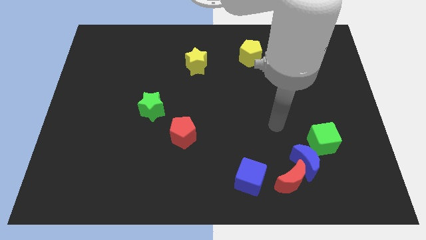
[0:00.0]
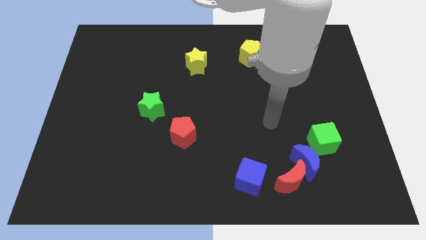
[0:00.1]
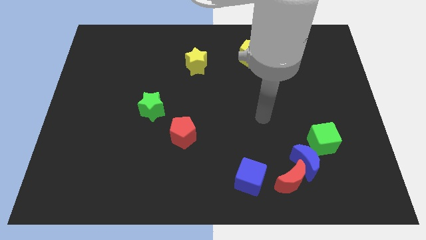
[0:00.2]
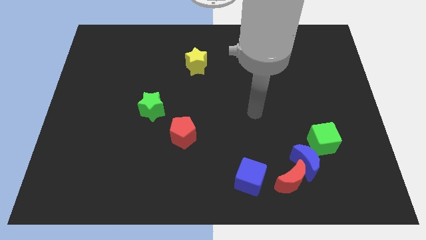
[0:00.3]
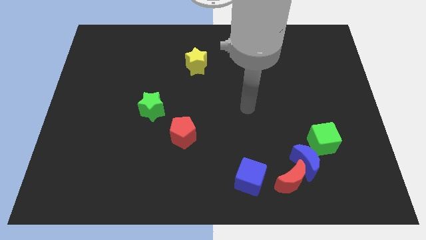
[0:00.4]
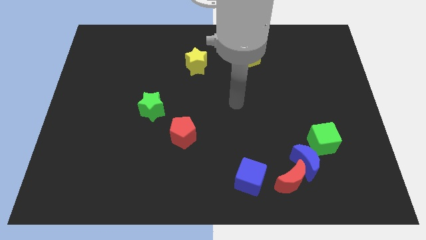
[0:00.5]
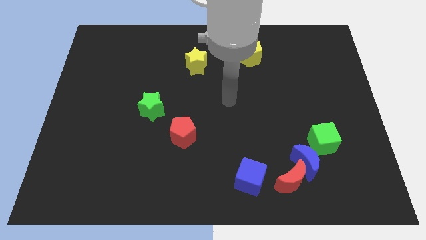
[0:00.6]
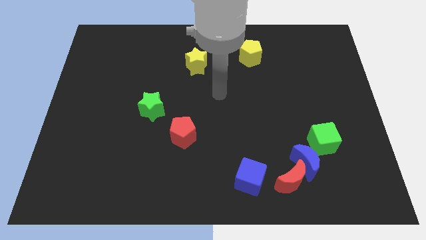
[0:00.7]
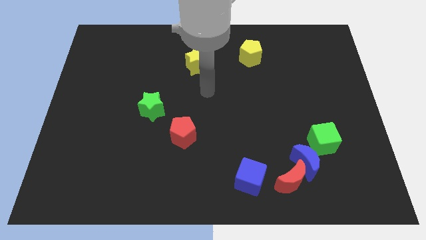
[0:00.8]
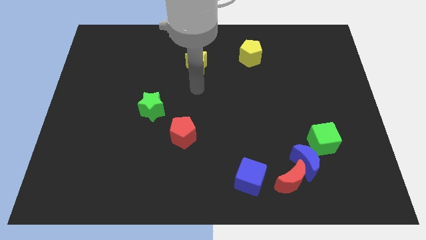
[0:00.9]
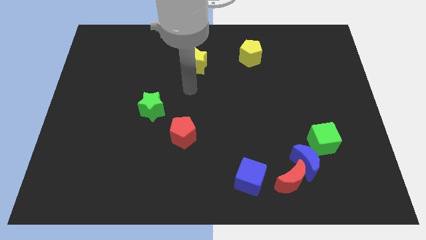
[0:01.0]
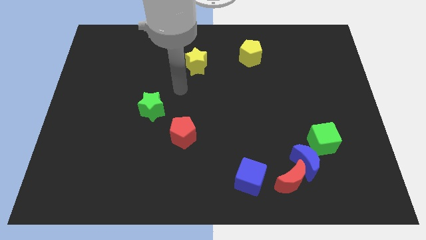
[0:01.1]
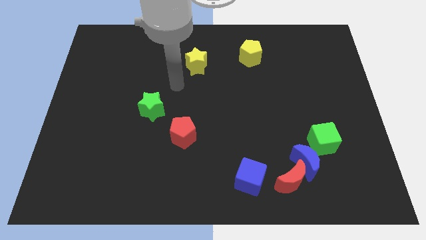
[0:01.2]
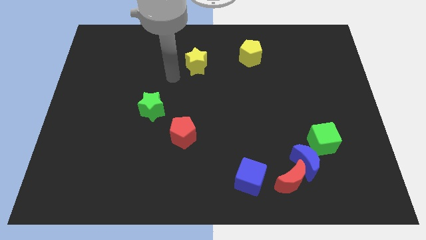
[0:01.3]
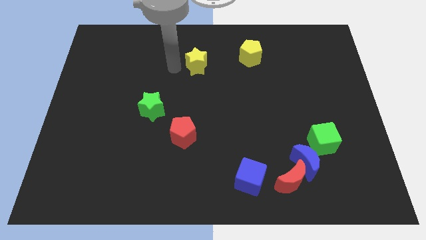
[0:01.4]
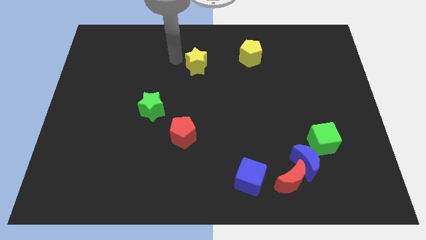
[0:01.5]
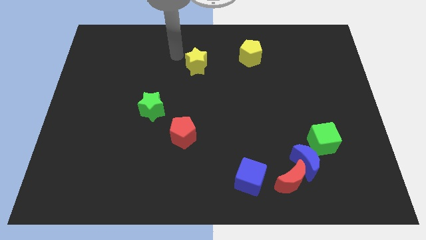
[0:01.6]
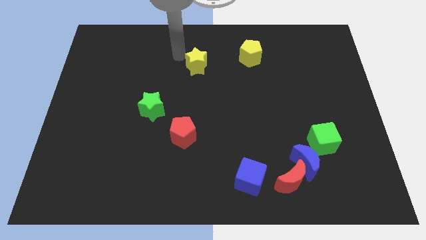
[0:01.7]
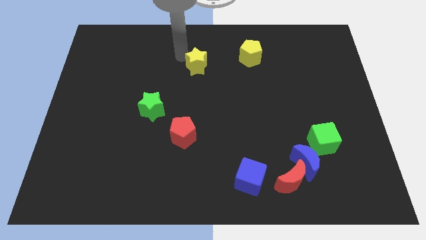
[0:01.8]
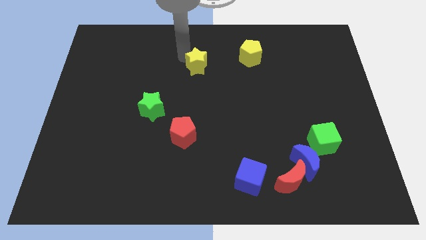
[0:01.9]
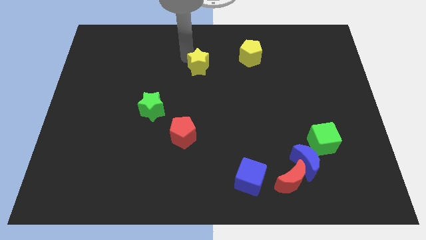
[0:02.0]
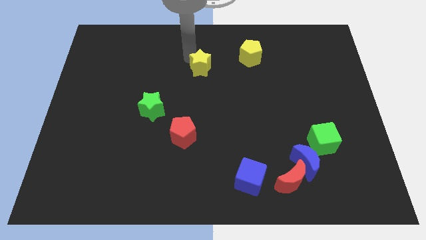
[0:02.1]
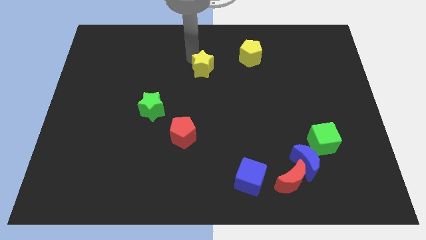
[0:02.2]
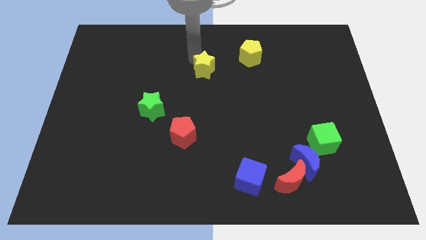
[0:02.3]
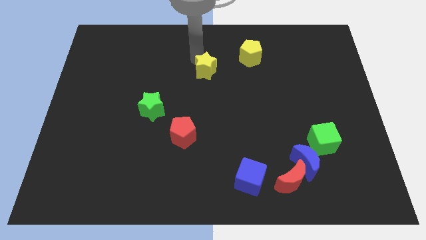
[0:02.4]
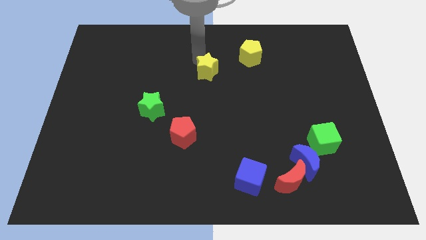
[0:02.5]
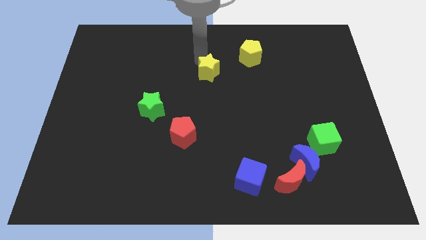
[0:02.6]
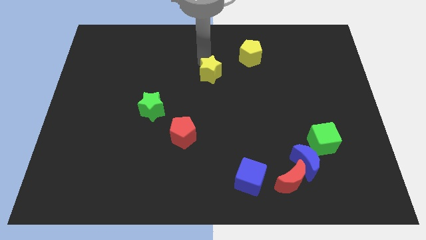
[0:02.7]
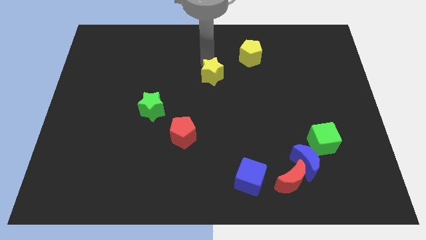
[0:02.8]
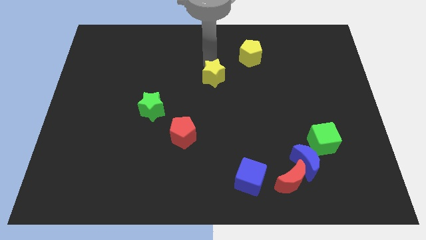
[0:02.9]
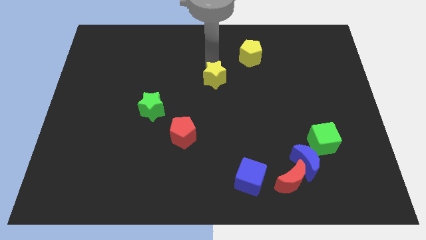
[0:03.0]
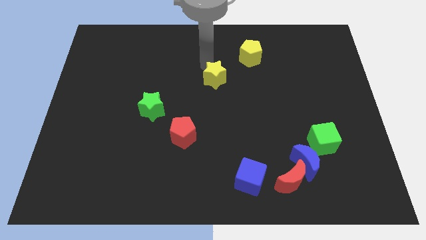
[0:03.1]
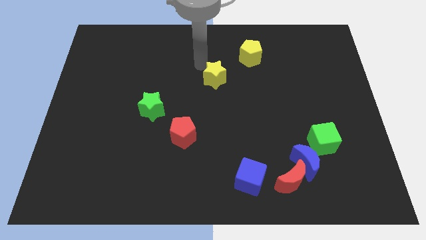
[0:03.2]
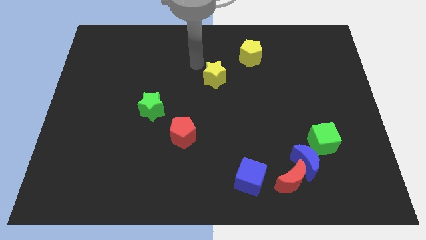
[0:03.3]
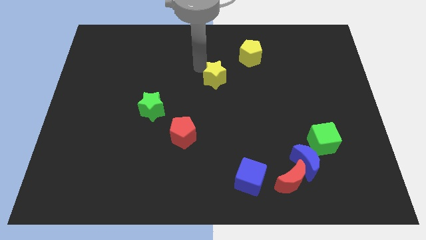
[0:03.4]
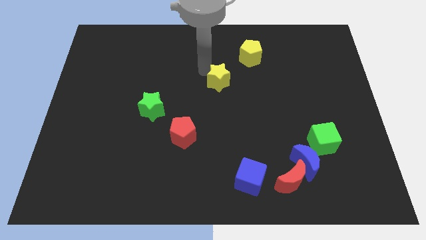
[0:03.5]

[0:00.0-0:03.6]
move the yellow star down and to the right a little bit

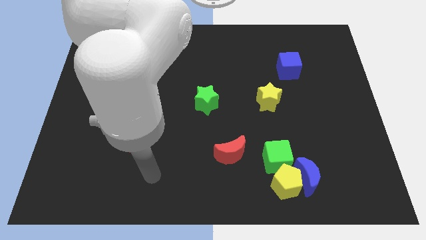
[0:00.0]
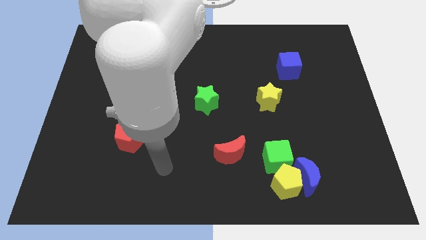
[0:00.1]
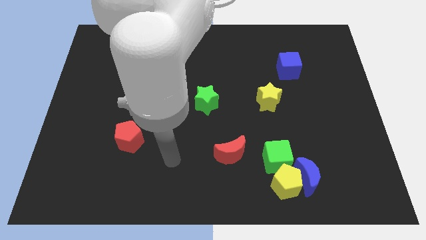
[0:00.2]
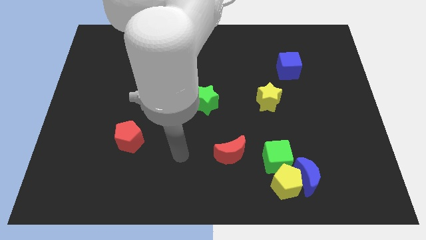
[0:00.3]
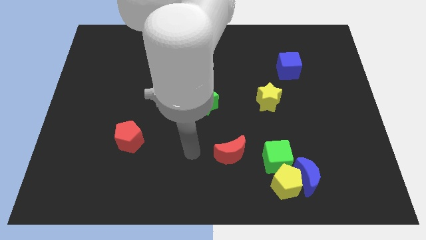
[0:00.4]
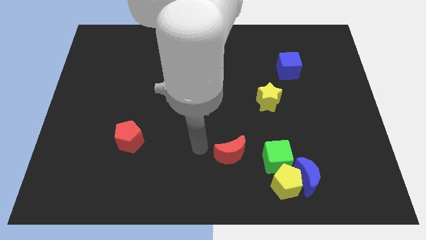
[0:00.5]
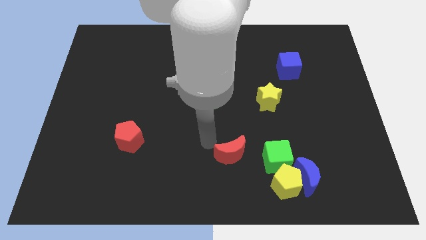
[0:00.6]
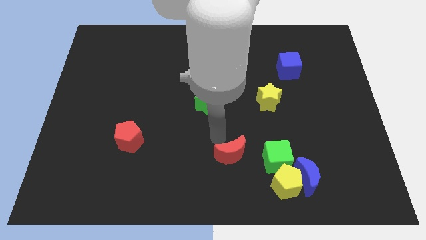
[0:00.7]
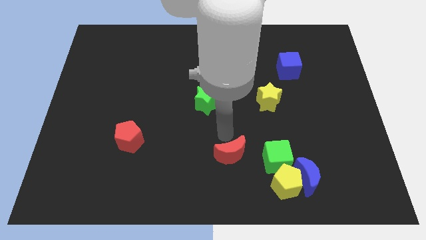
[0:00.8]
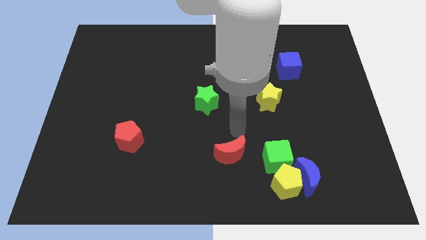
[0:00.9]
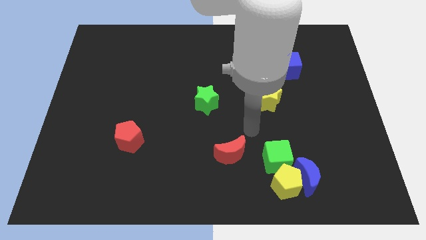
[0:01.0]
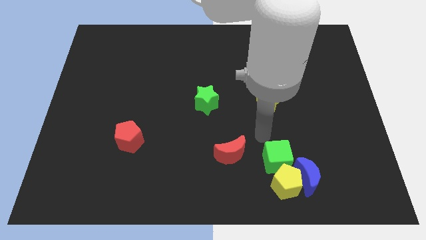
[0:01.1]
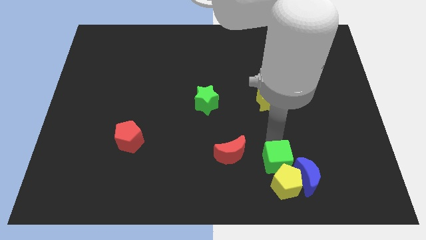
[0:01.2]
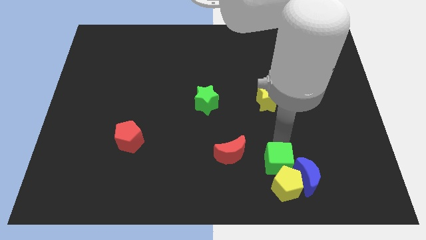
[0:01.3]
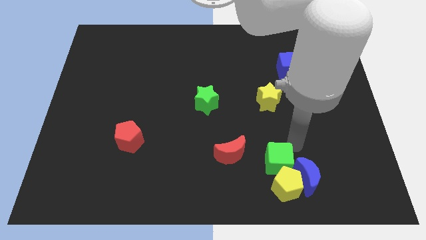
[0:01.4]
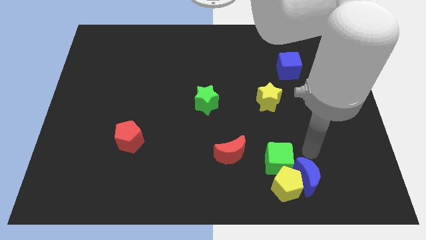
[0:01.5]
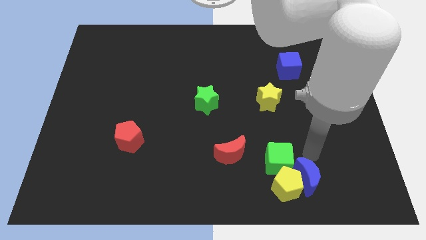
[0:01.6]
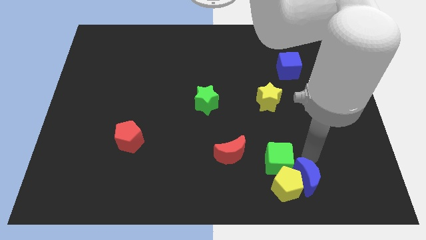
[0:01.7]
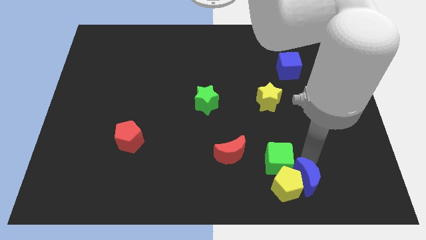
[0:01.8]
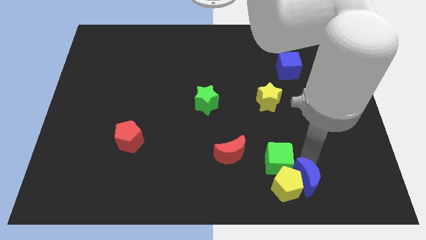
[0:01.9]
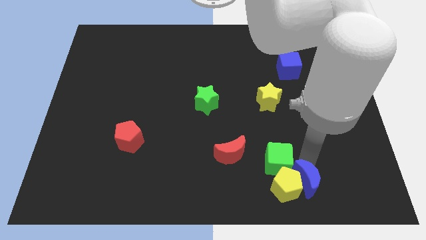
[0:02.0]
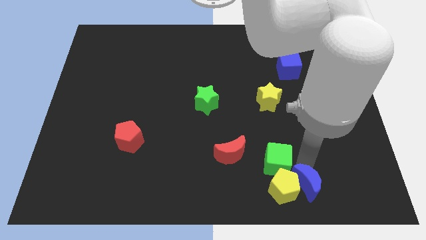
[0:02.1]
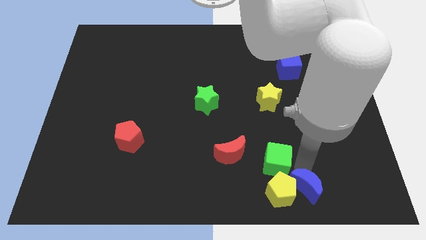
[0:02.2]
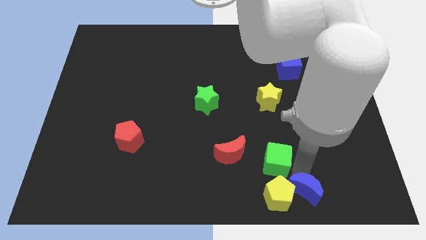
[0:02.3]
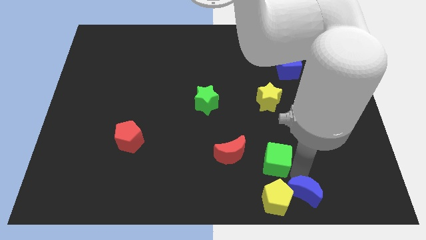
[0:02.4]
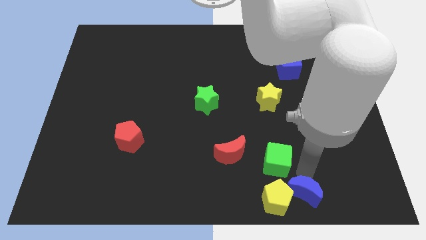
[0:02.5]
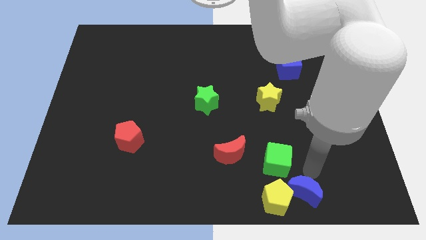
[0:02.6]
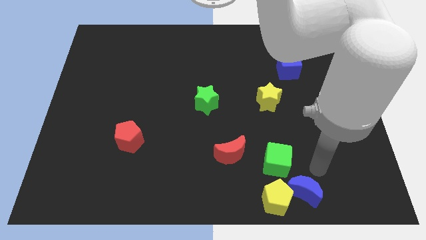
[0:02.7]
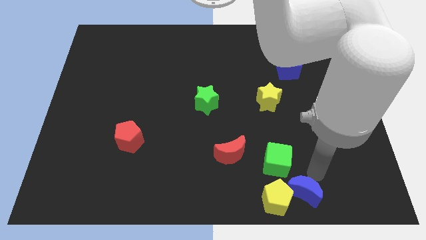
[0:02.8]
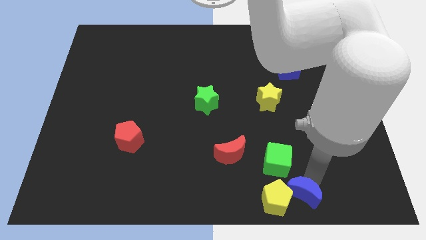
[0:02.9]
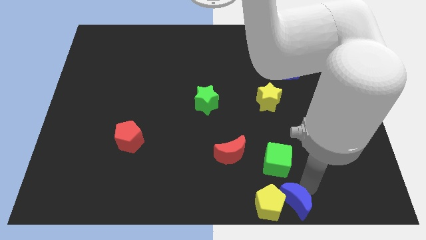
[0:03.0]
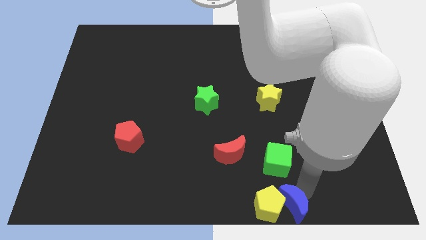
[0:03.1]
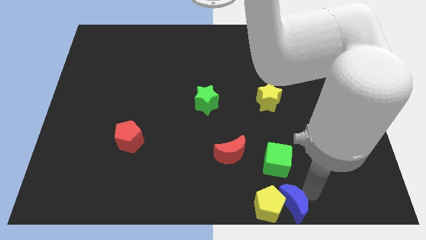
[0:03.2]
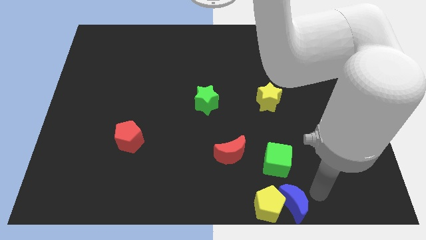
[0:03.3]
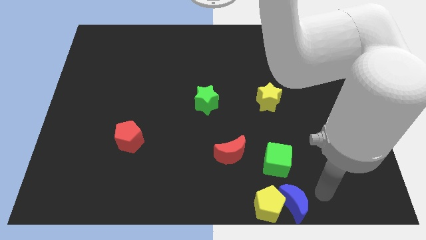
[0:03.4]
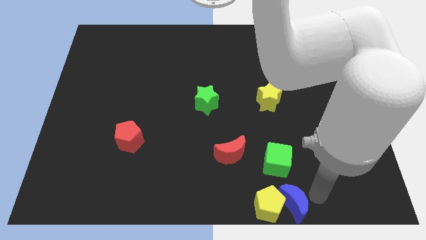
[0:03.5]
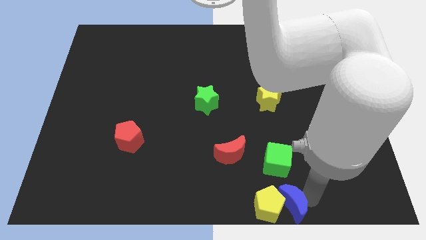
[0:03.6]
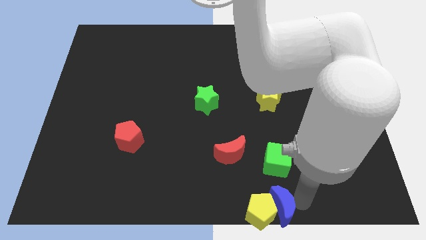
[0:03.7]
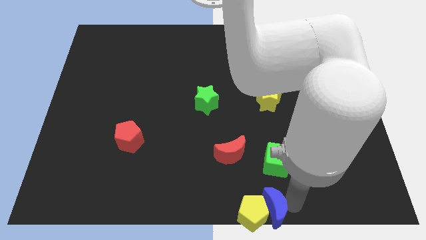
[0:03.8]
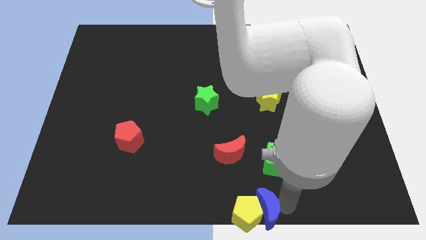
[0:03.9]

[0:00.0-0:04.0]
slide the blue moon a bit left

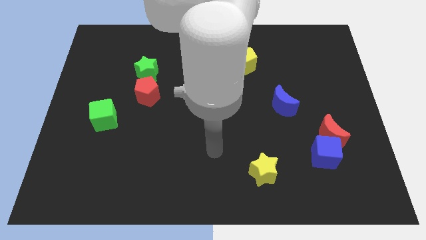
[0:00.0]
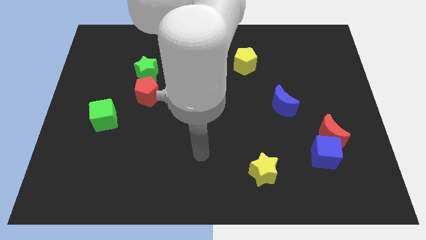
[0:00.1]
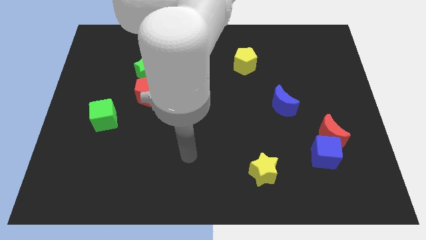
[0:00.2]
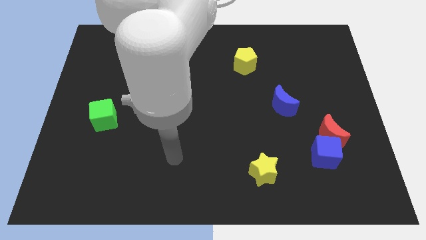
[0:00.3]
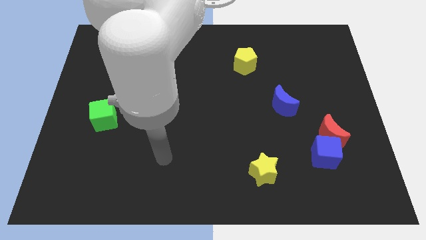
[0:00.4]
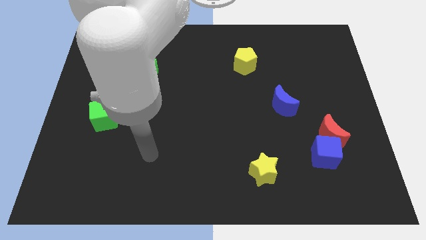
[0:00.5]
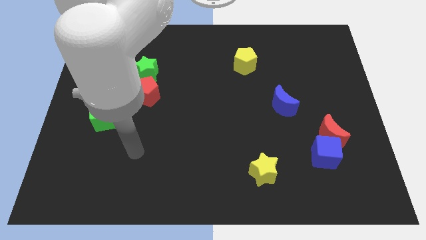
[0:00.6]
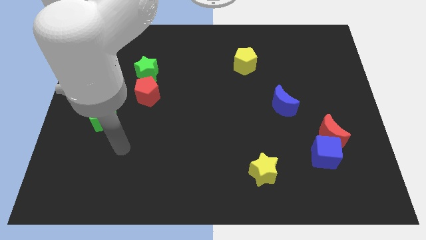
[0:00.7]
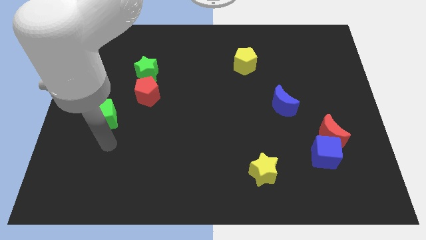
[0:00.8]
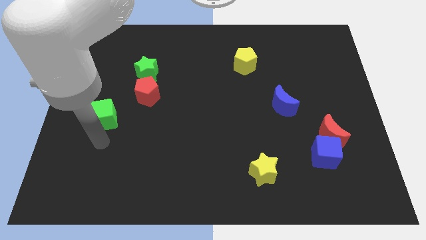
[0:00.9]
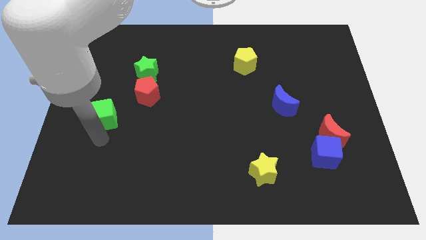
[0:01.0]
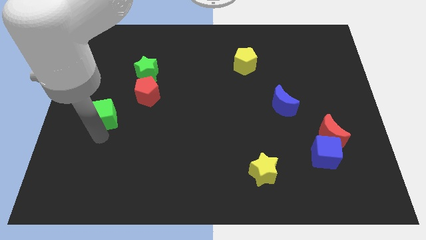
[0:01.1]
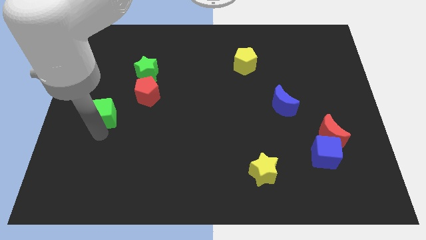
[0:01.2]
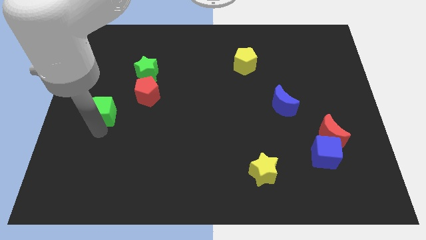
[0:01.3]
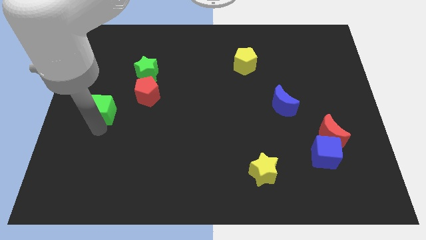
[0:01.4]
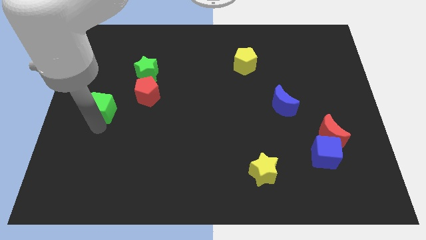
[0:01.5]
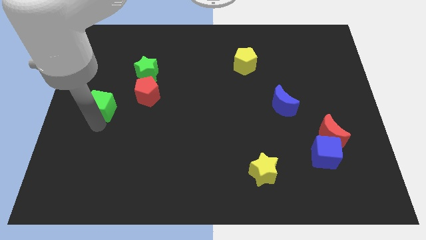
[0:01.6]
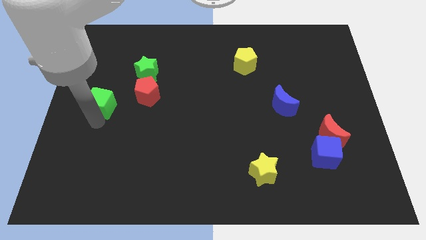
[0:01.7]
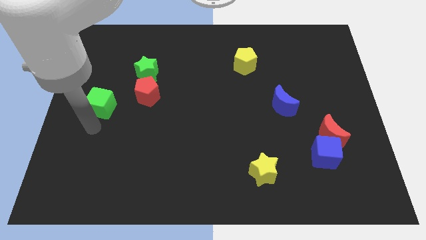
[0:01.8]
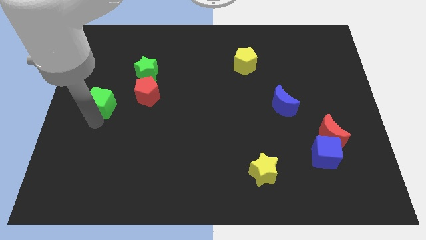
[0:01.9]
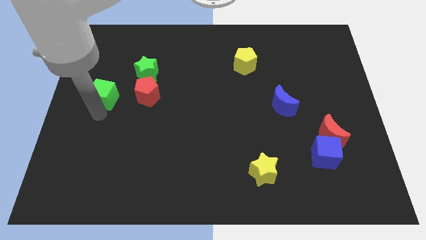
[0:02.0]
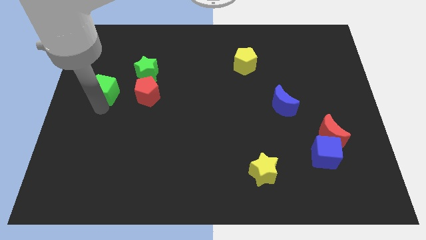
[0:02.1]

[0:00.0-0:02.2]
push the green cube up somewhat
